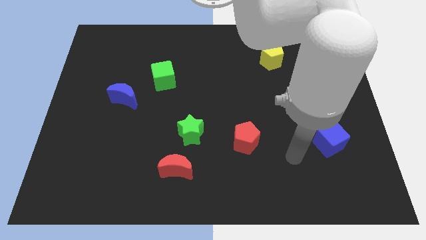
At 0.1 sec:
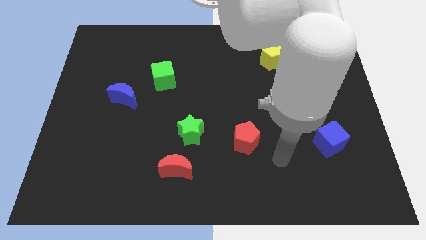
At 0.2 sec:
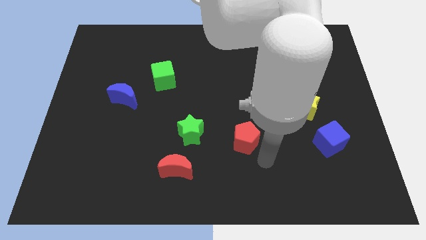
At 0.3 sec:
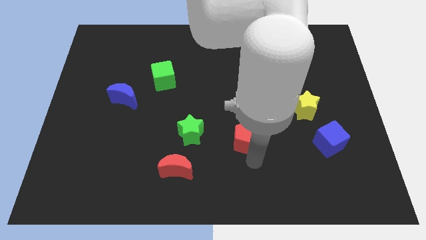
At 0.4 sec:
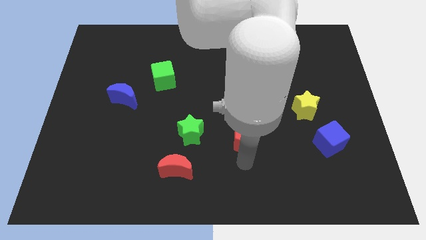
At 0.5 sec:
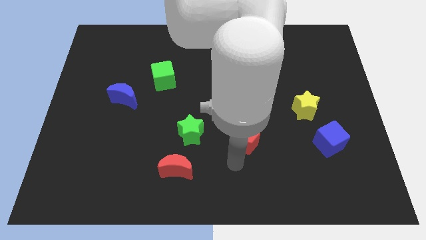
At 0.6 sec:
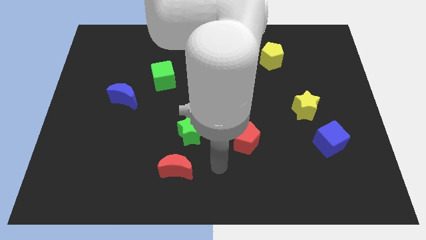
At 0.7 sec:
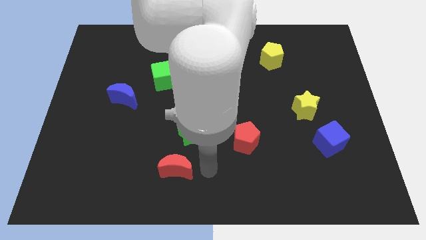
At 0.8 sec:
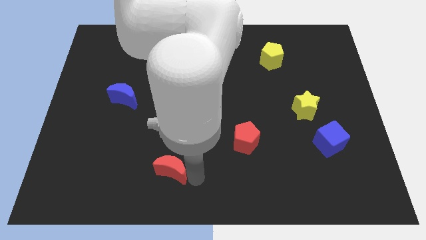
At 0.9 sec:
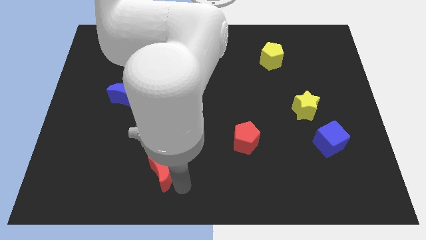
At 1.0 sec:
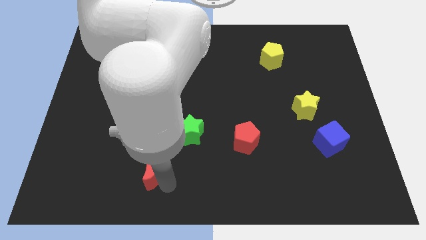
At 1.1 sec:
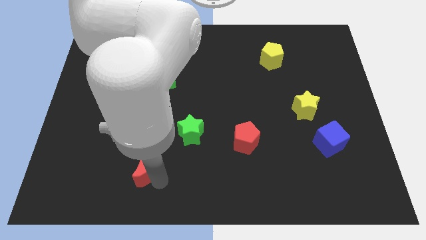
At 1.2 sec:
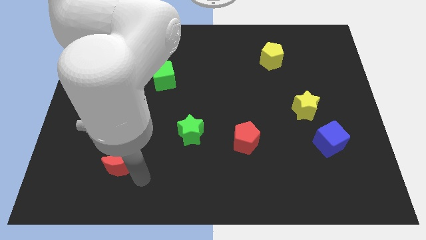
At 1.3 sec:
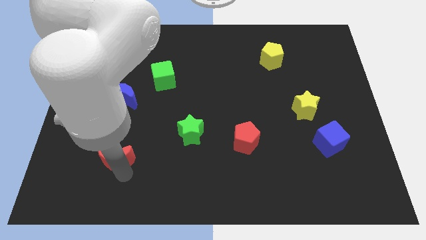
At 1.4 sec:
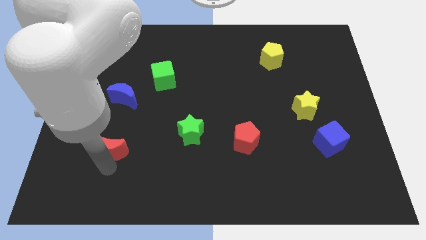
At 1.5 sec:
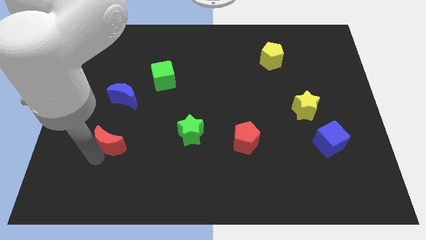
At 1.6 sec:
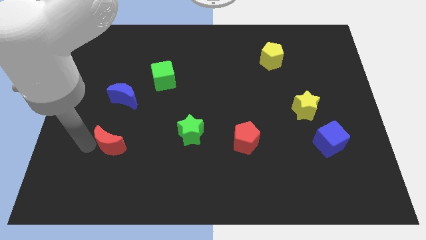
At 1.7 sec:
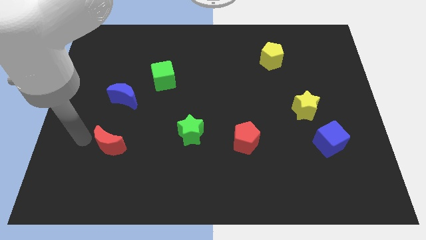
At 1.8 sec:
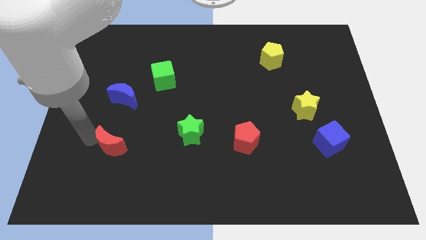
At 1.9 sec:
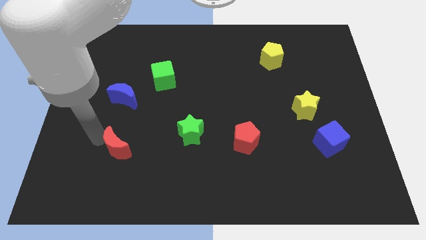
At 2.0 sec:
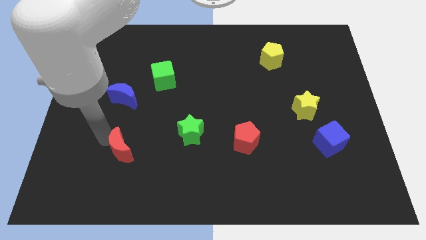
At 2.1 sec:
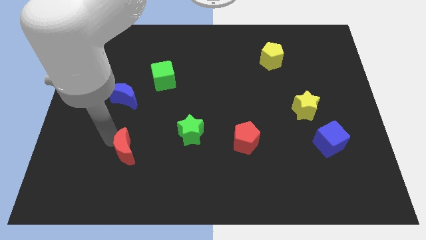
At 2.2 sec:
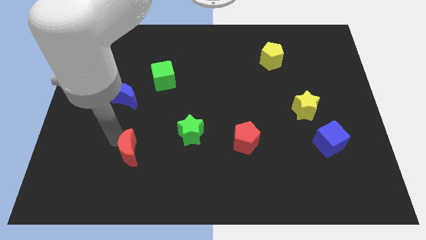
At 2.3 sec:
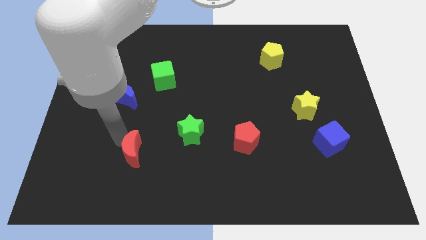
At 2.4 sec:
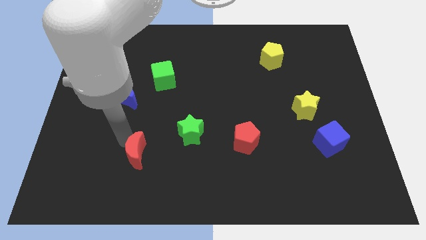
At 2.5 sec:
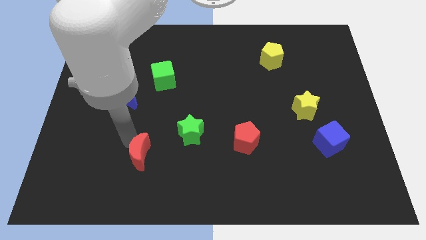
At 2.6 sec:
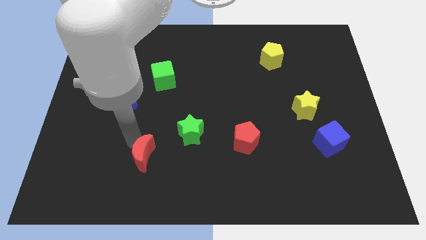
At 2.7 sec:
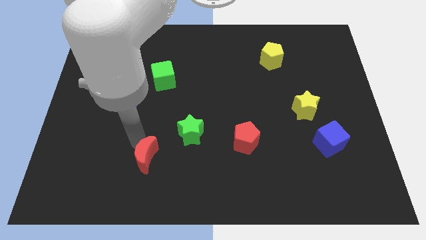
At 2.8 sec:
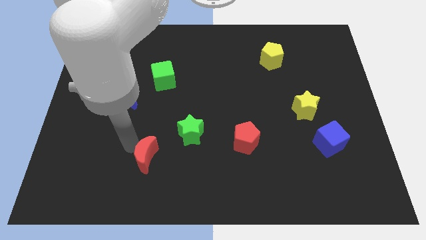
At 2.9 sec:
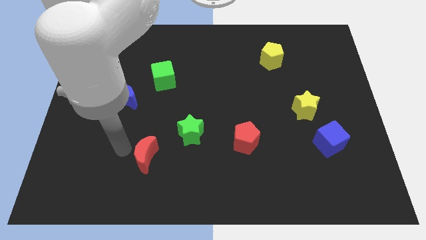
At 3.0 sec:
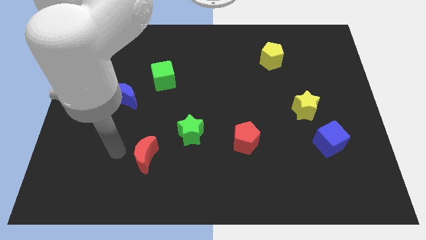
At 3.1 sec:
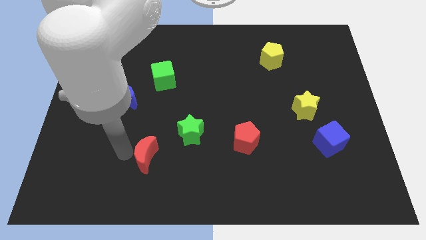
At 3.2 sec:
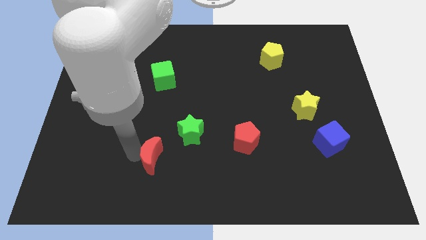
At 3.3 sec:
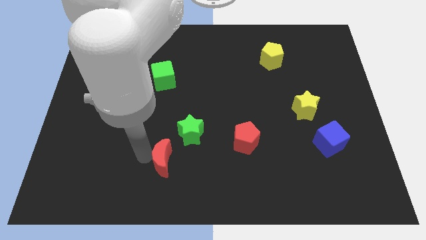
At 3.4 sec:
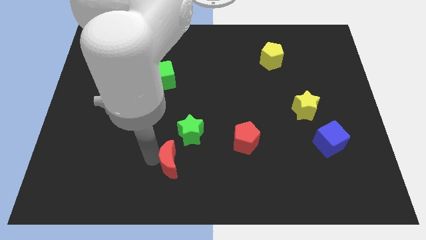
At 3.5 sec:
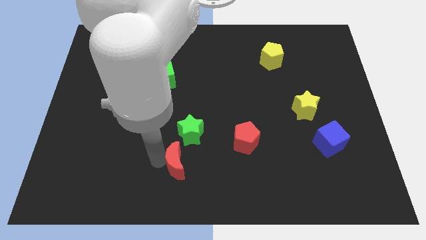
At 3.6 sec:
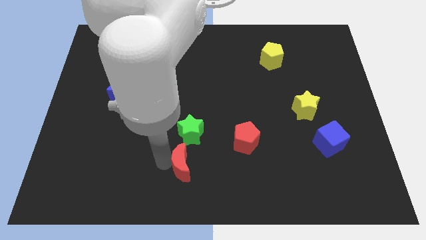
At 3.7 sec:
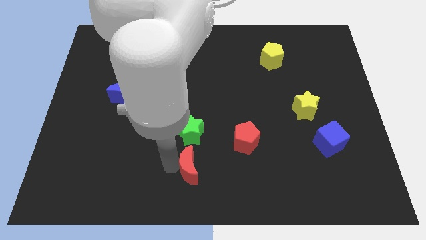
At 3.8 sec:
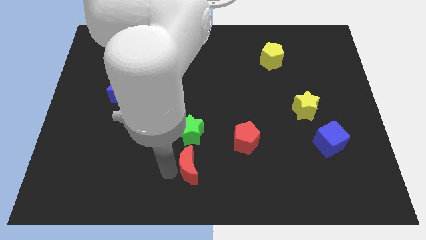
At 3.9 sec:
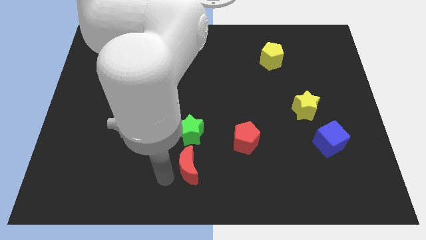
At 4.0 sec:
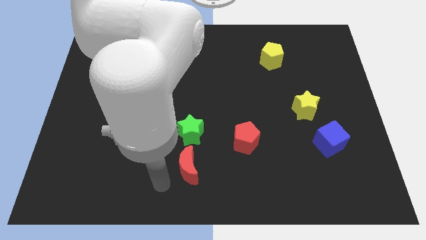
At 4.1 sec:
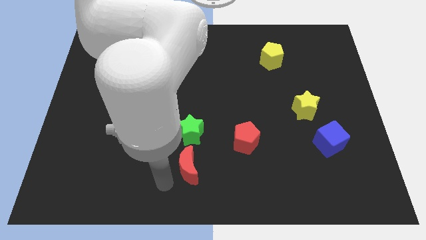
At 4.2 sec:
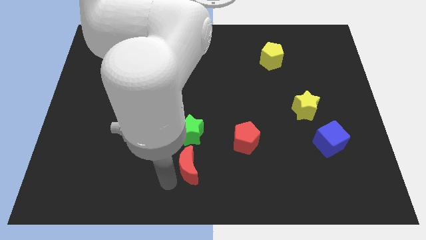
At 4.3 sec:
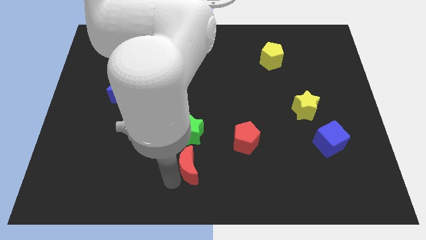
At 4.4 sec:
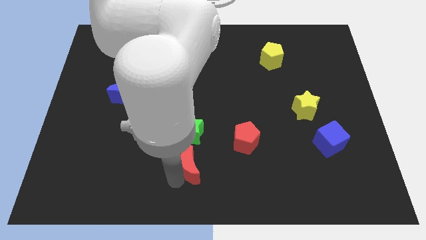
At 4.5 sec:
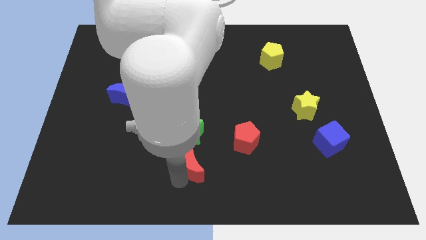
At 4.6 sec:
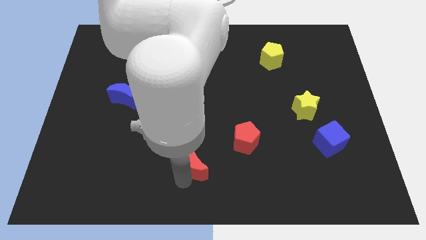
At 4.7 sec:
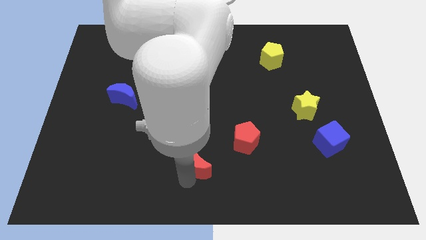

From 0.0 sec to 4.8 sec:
move the red moon diagonally down and to the right of the green star

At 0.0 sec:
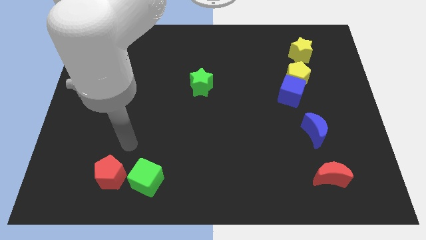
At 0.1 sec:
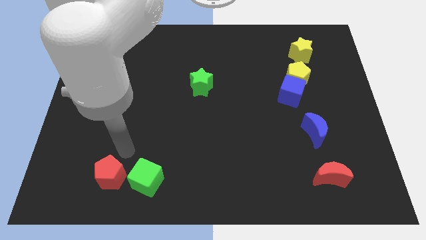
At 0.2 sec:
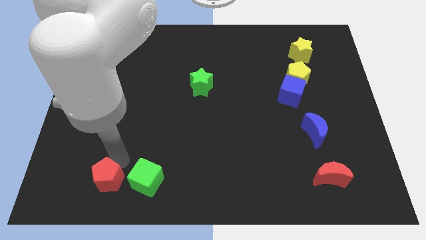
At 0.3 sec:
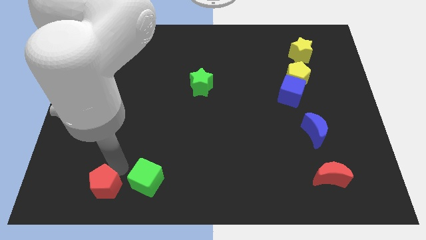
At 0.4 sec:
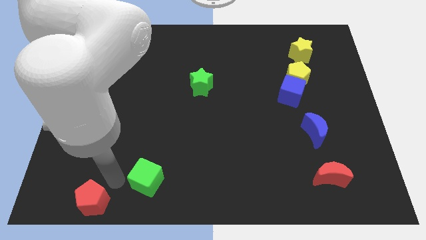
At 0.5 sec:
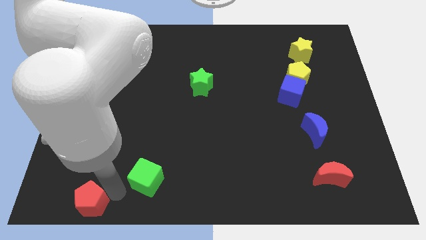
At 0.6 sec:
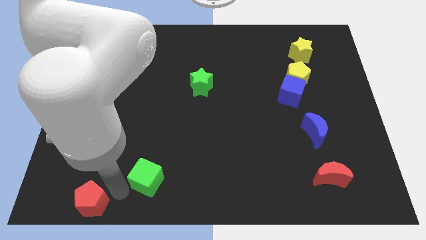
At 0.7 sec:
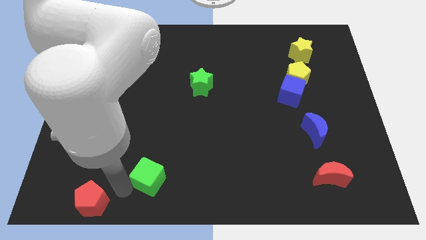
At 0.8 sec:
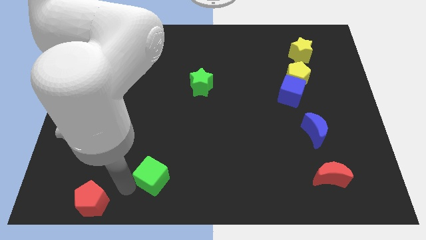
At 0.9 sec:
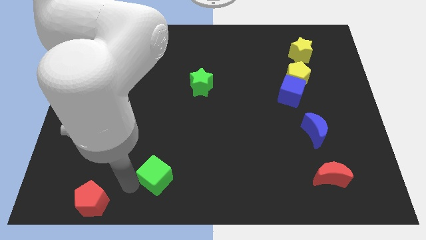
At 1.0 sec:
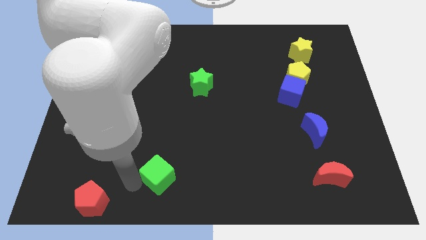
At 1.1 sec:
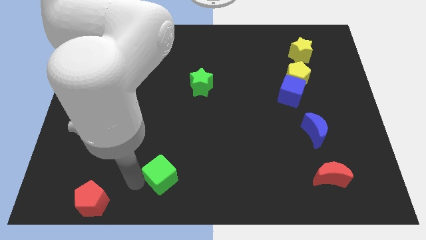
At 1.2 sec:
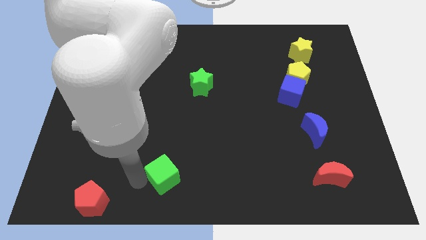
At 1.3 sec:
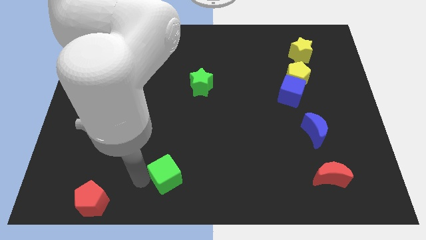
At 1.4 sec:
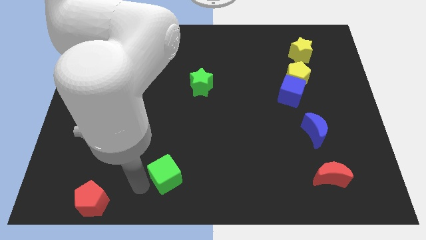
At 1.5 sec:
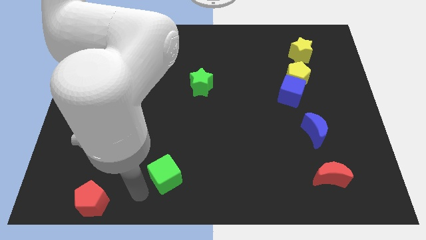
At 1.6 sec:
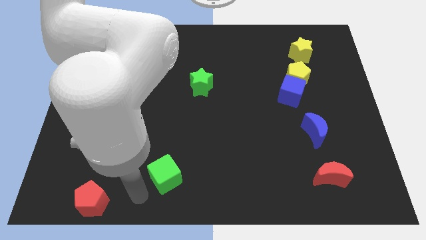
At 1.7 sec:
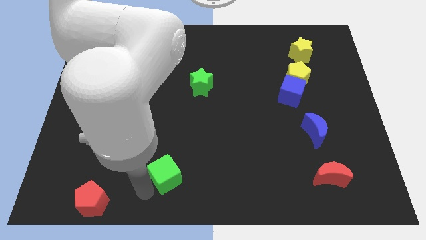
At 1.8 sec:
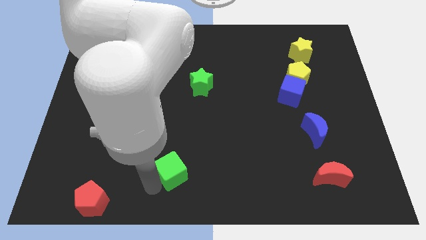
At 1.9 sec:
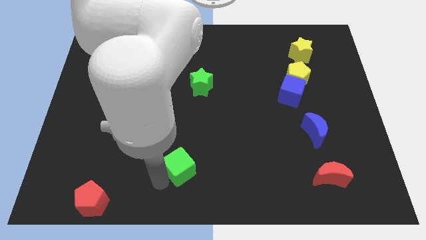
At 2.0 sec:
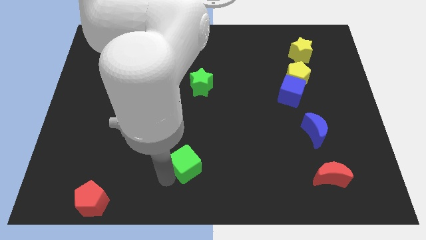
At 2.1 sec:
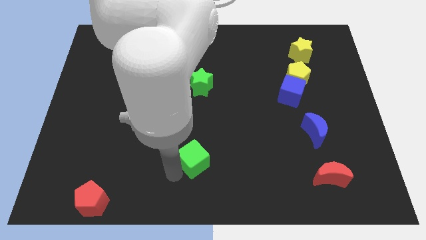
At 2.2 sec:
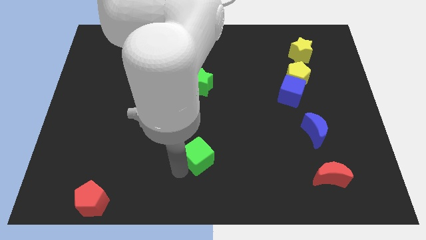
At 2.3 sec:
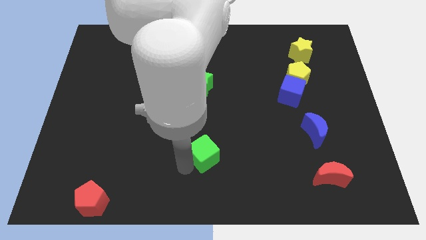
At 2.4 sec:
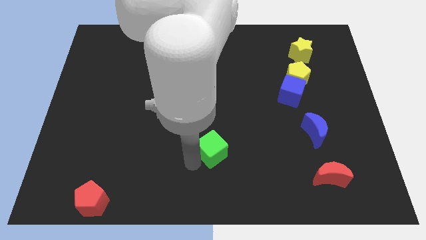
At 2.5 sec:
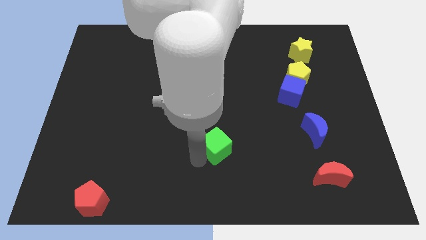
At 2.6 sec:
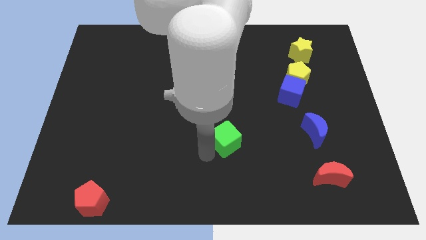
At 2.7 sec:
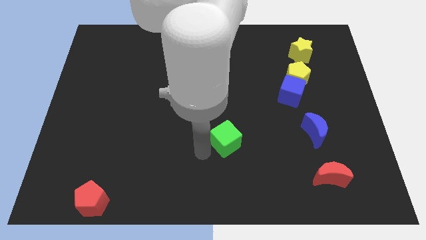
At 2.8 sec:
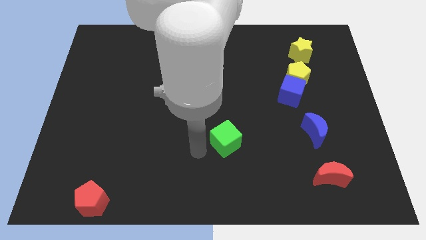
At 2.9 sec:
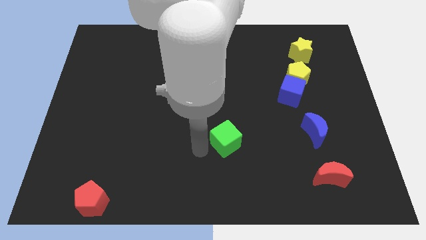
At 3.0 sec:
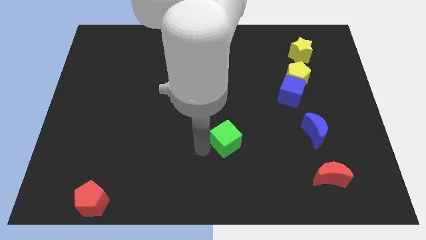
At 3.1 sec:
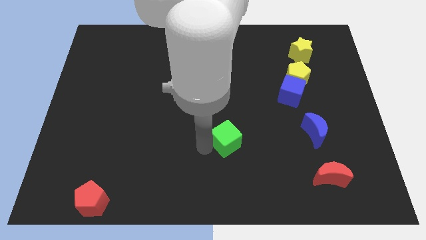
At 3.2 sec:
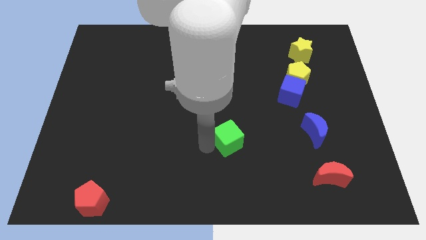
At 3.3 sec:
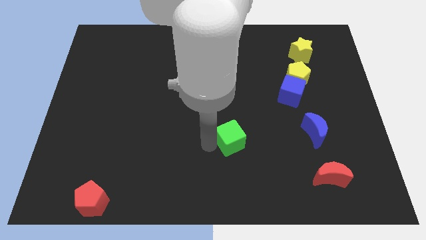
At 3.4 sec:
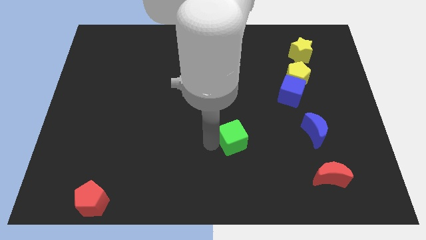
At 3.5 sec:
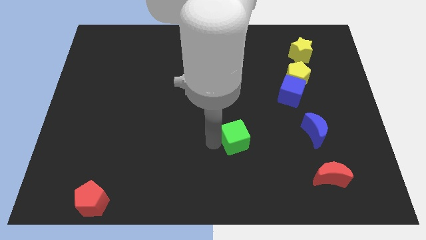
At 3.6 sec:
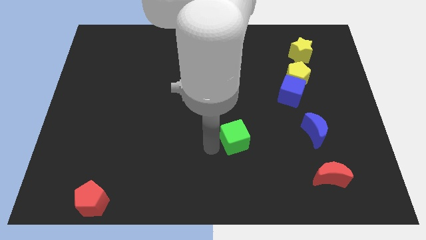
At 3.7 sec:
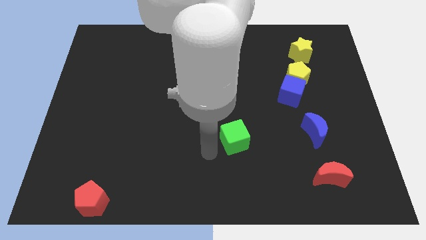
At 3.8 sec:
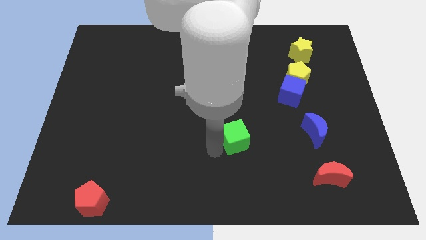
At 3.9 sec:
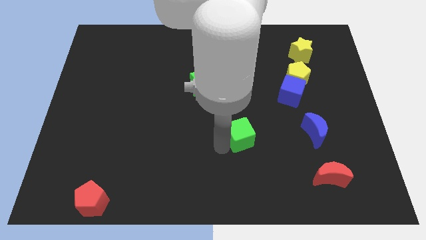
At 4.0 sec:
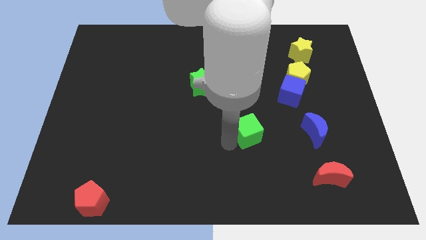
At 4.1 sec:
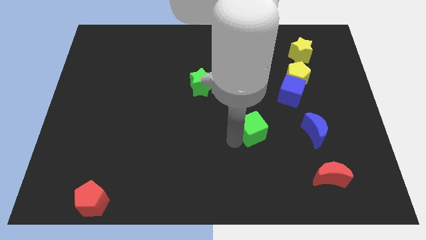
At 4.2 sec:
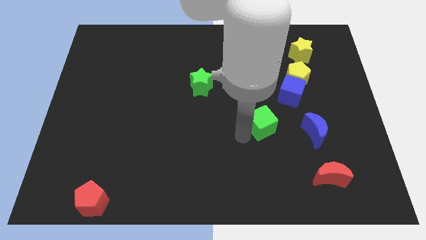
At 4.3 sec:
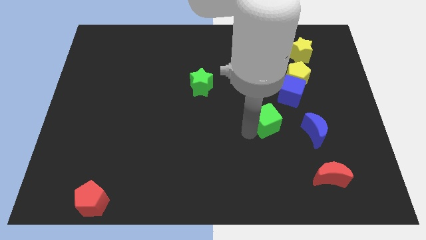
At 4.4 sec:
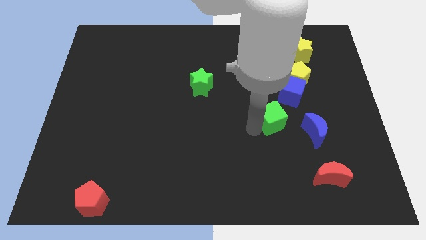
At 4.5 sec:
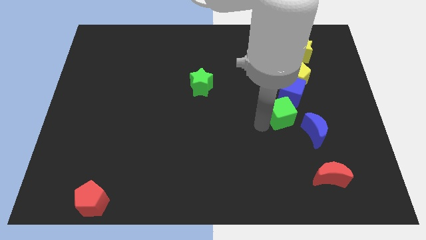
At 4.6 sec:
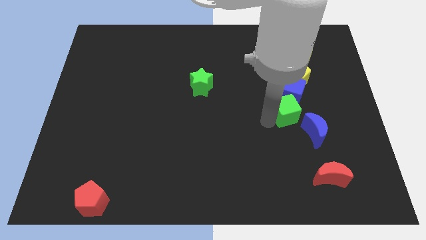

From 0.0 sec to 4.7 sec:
move the green cube to the bottom of the yellow pentagon
